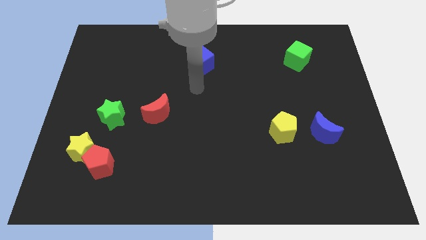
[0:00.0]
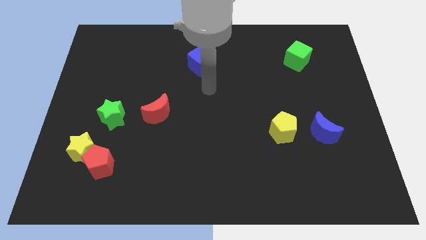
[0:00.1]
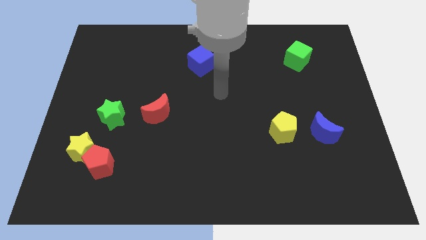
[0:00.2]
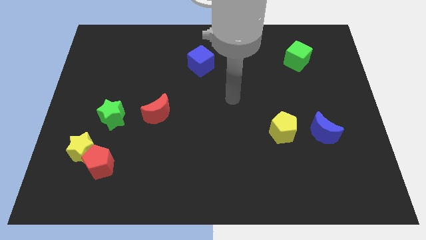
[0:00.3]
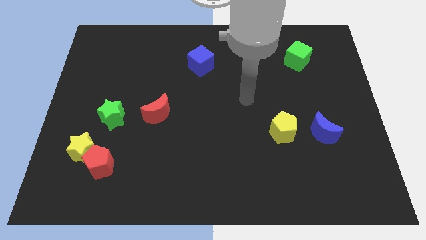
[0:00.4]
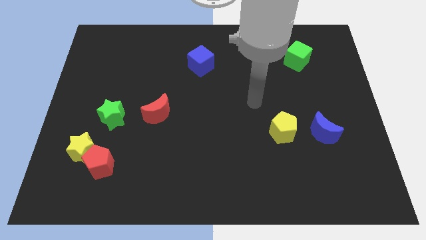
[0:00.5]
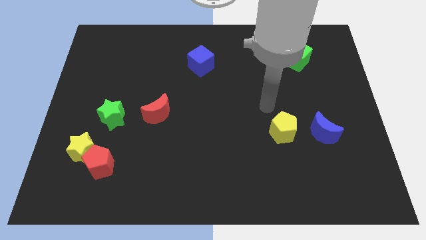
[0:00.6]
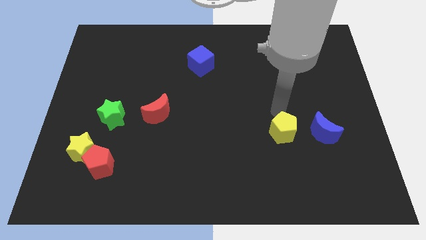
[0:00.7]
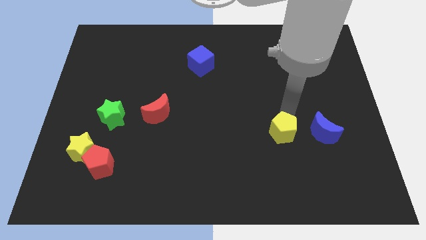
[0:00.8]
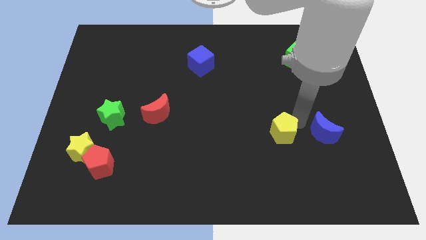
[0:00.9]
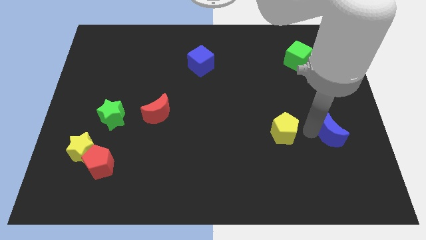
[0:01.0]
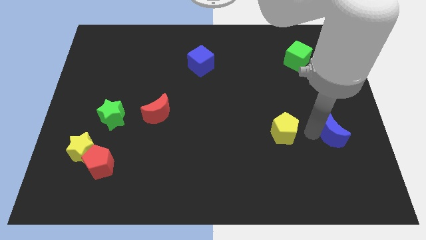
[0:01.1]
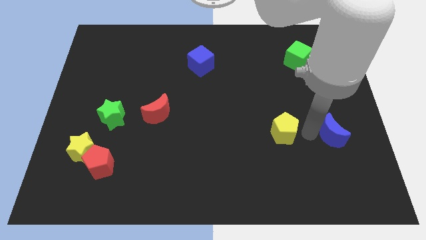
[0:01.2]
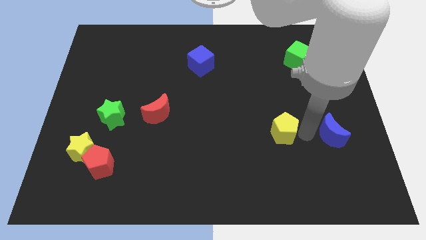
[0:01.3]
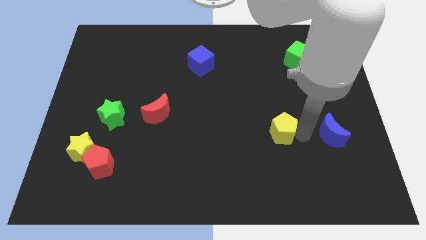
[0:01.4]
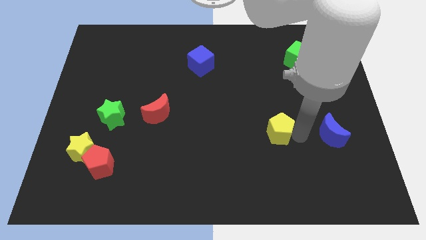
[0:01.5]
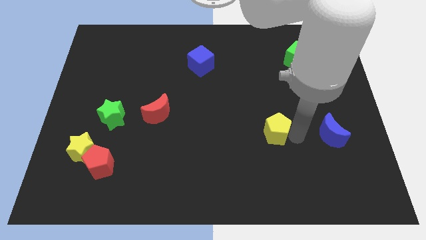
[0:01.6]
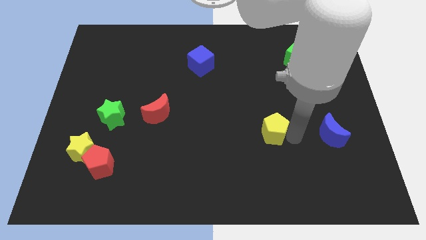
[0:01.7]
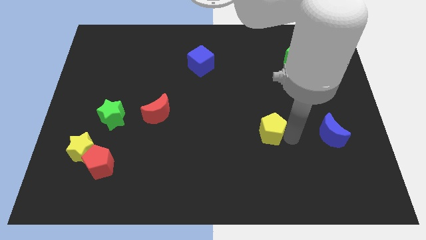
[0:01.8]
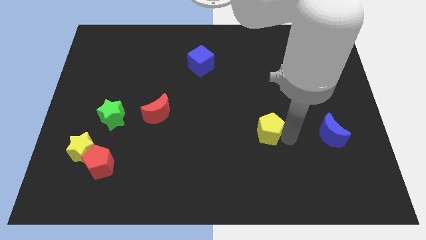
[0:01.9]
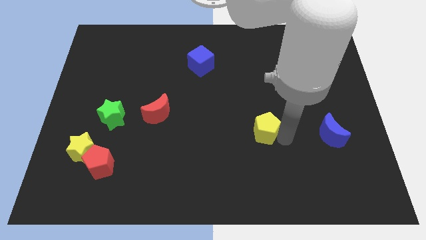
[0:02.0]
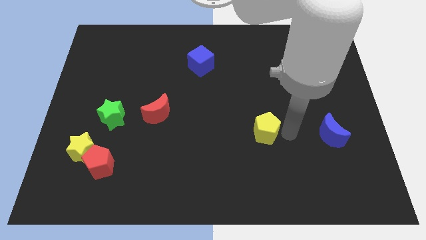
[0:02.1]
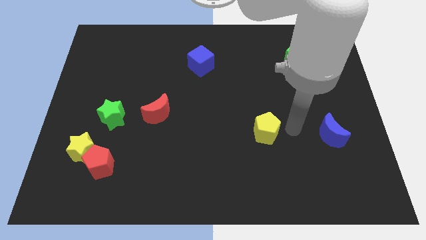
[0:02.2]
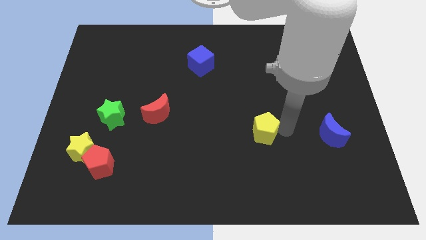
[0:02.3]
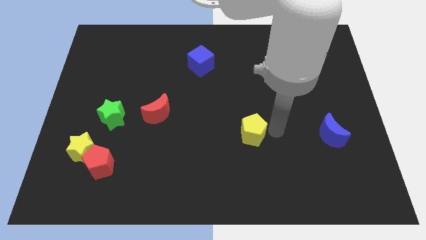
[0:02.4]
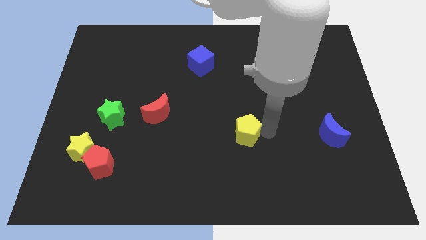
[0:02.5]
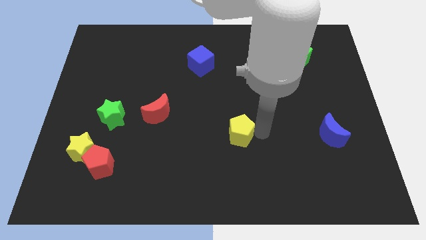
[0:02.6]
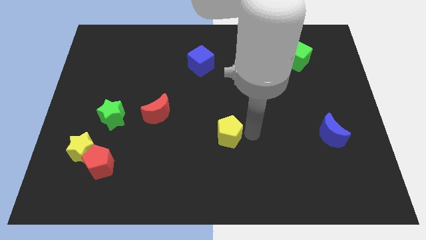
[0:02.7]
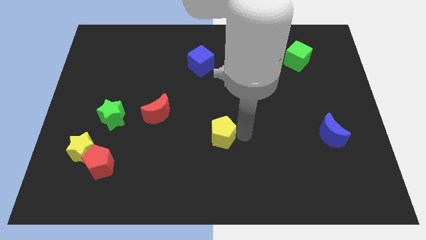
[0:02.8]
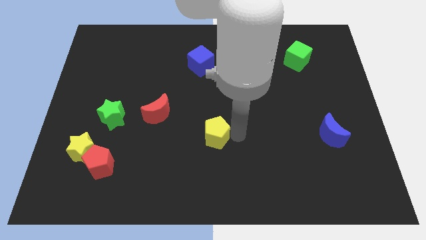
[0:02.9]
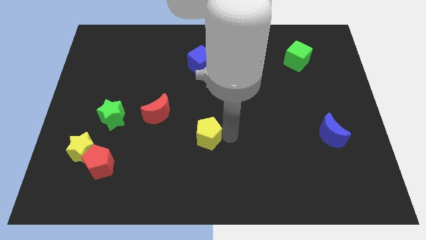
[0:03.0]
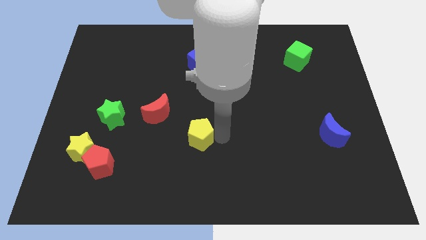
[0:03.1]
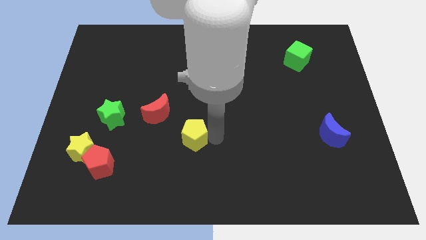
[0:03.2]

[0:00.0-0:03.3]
slide the yellow pentagon to the left

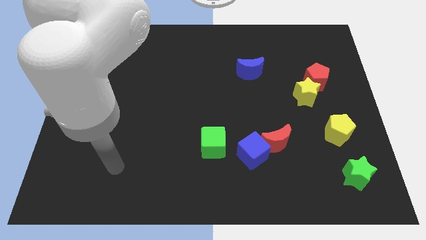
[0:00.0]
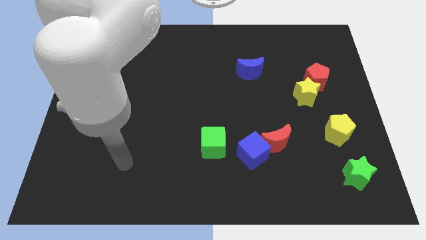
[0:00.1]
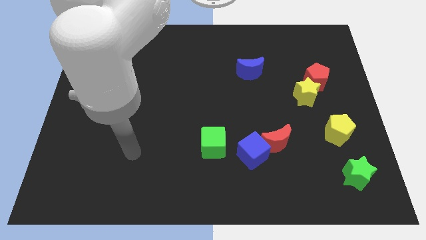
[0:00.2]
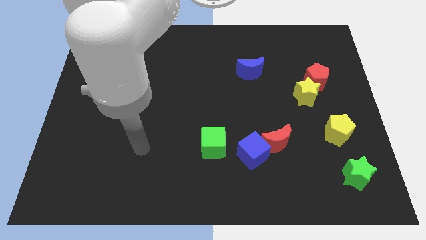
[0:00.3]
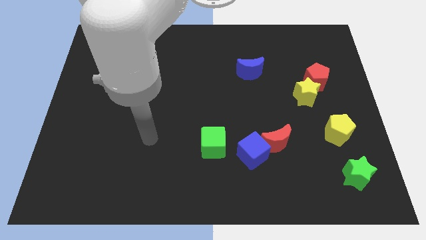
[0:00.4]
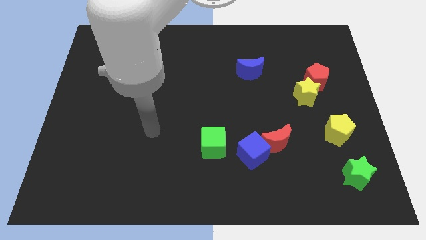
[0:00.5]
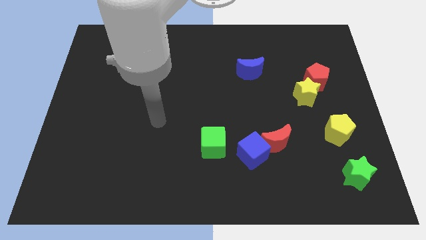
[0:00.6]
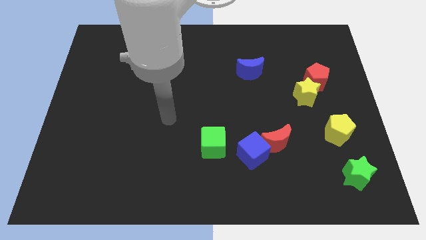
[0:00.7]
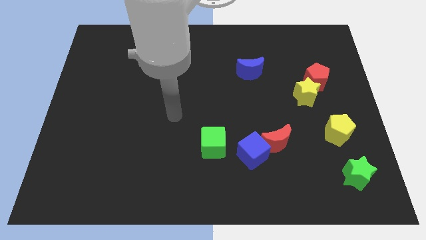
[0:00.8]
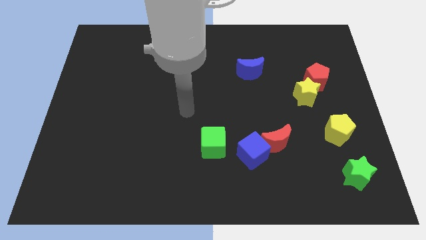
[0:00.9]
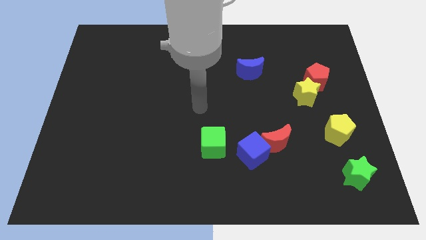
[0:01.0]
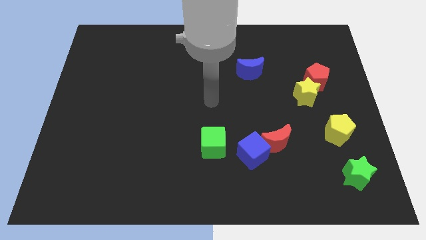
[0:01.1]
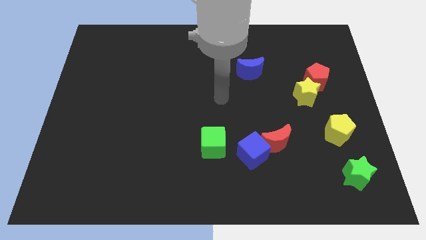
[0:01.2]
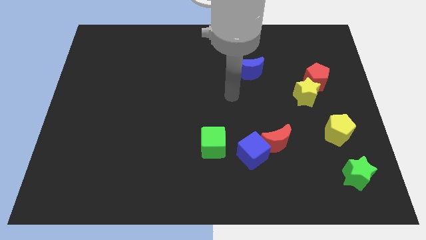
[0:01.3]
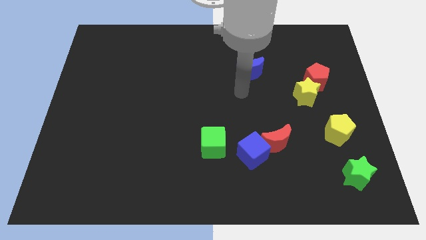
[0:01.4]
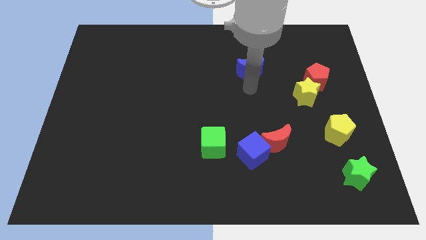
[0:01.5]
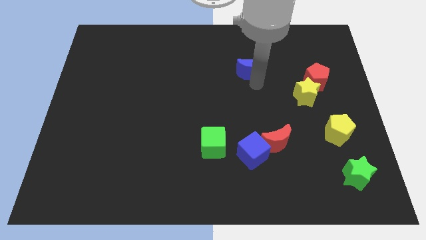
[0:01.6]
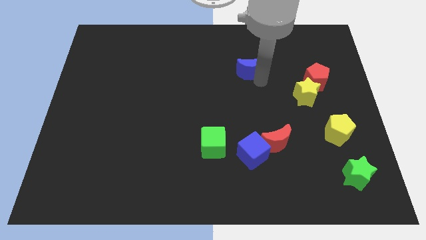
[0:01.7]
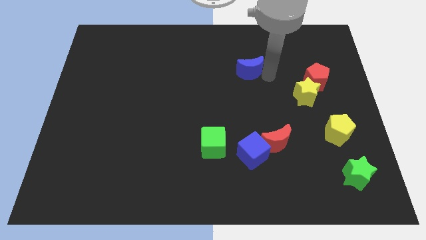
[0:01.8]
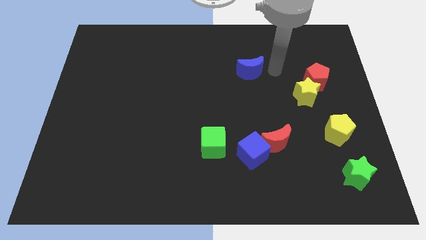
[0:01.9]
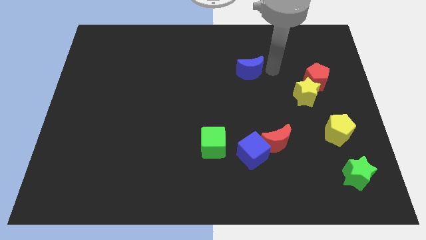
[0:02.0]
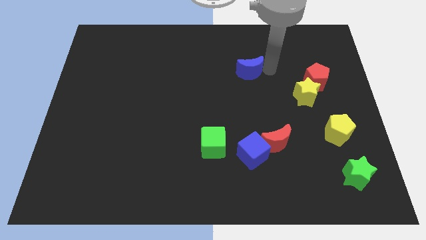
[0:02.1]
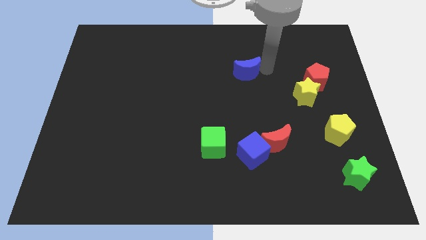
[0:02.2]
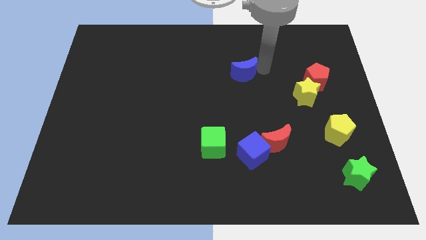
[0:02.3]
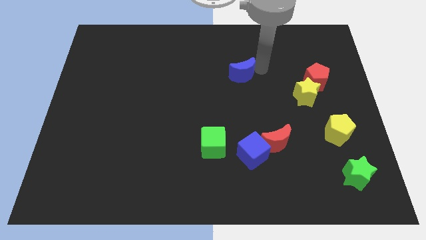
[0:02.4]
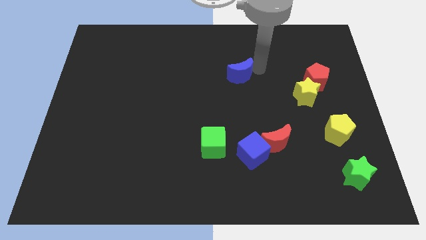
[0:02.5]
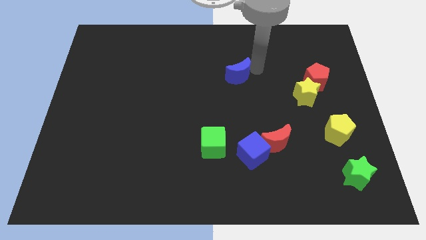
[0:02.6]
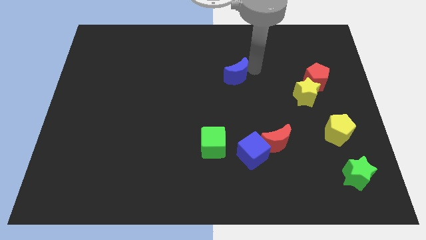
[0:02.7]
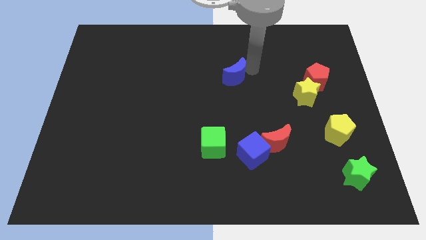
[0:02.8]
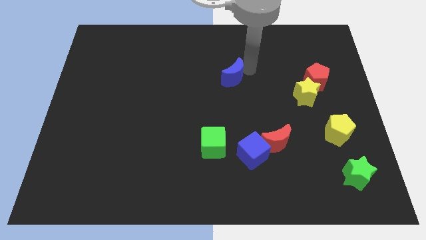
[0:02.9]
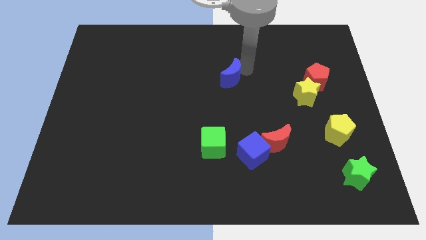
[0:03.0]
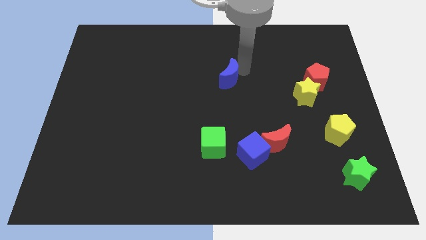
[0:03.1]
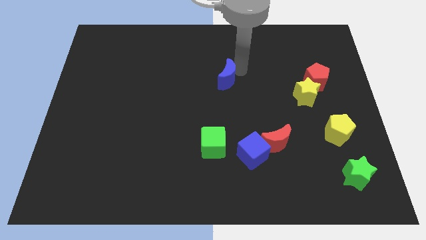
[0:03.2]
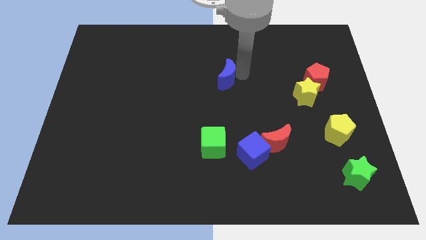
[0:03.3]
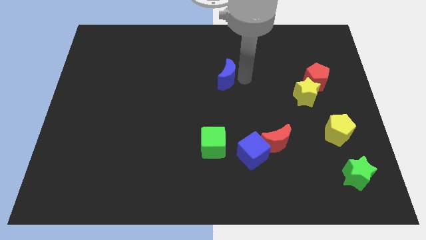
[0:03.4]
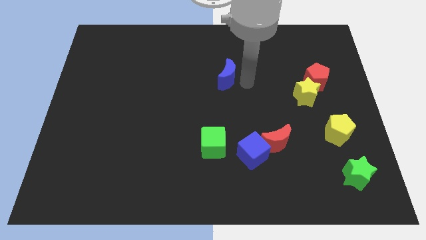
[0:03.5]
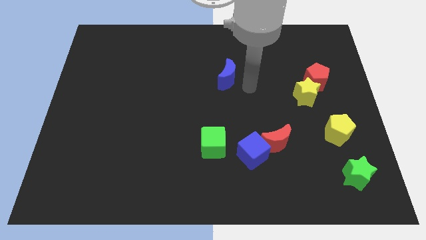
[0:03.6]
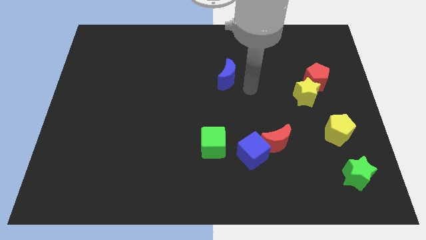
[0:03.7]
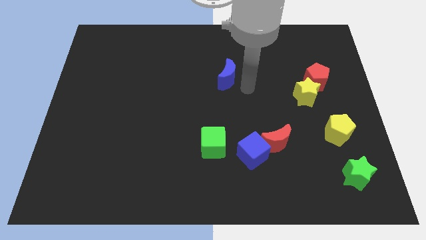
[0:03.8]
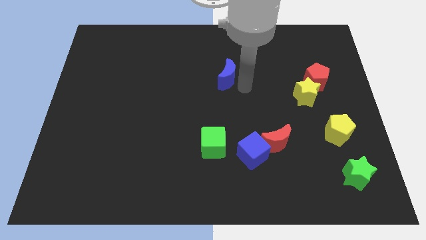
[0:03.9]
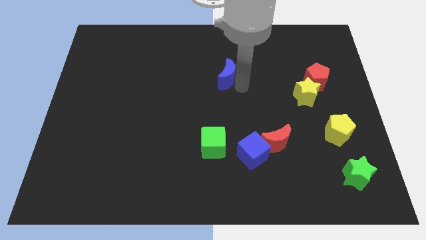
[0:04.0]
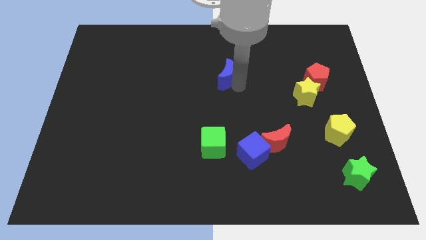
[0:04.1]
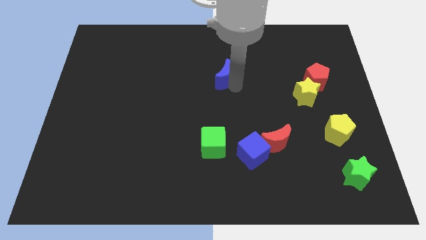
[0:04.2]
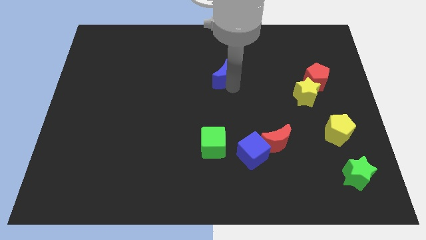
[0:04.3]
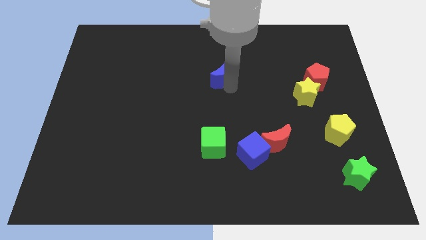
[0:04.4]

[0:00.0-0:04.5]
slide the blue moon somewhat left
